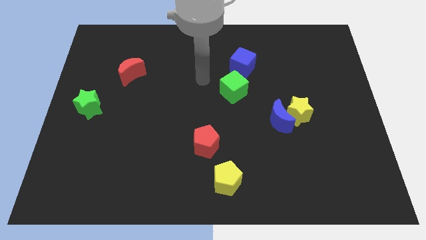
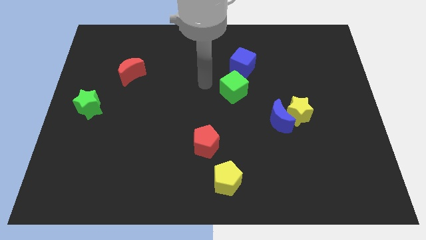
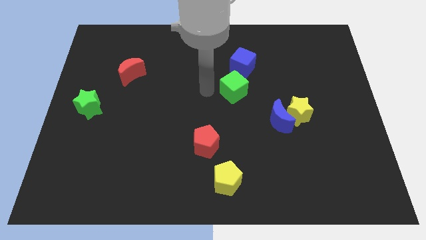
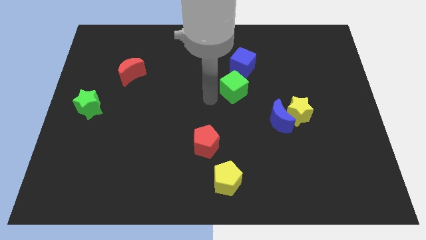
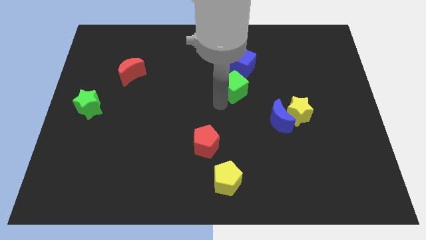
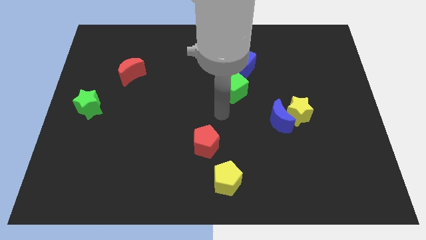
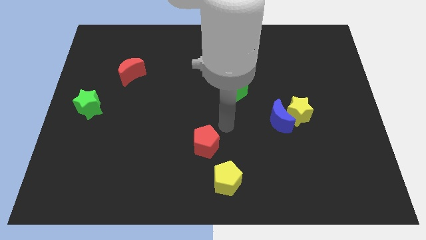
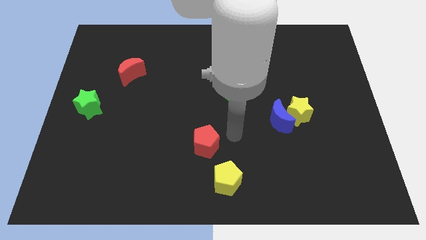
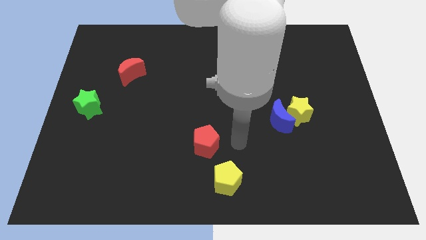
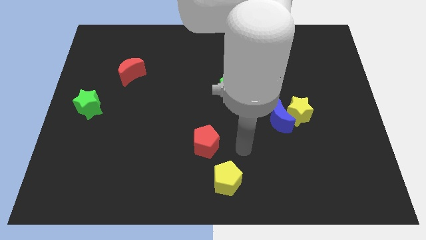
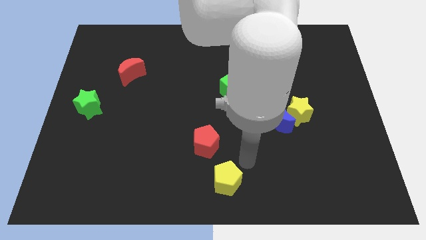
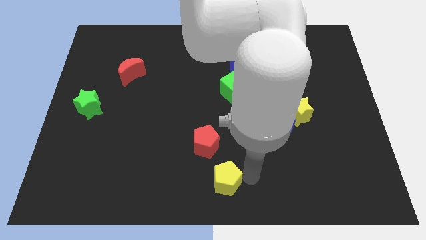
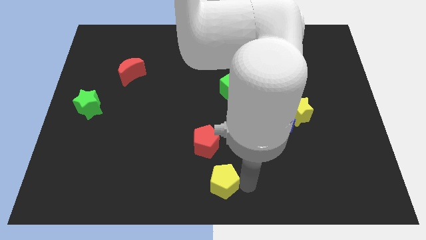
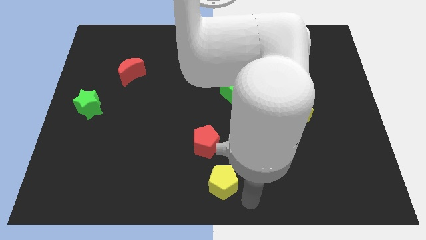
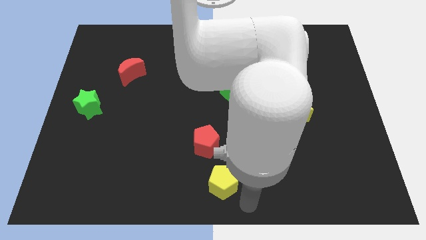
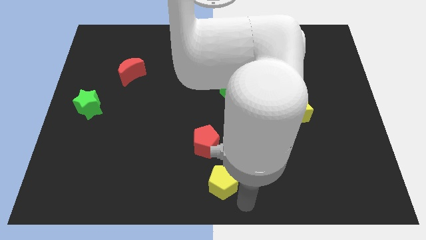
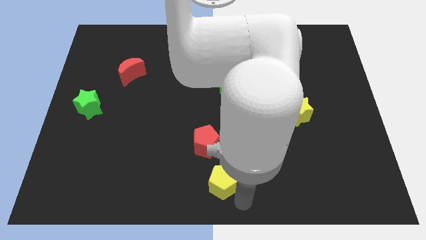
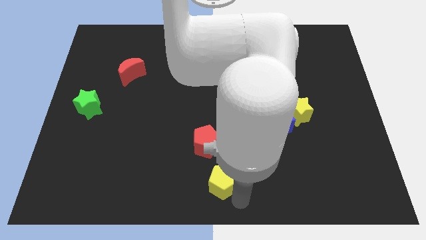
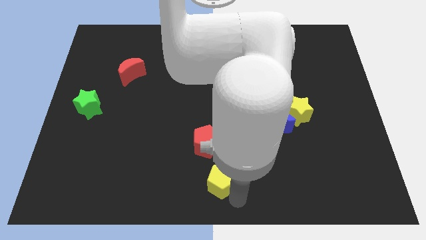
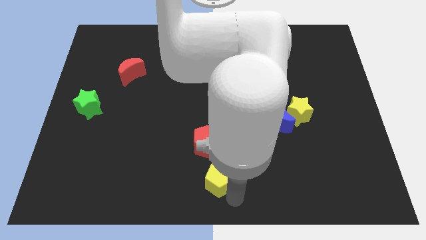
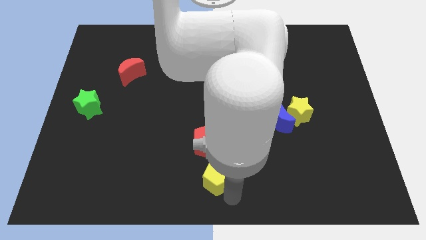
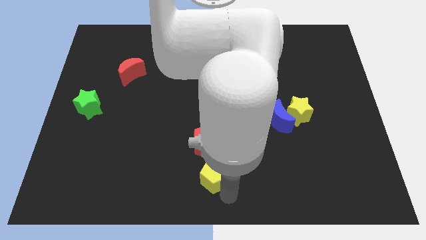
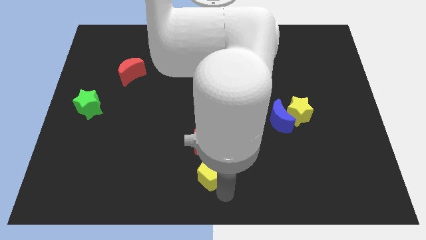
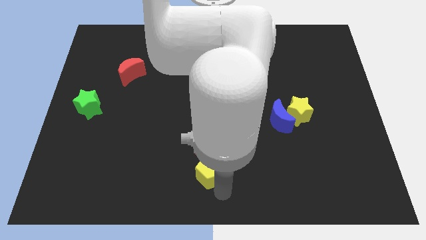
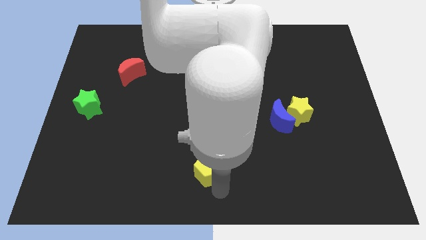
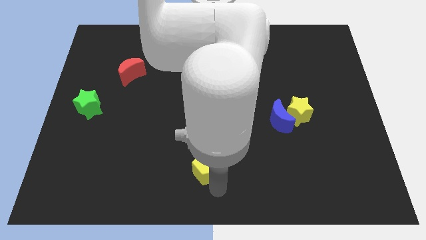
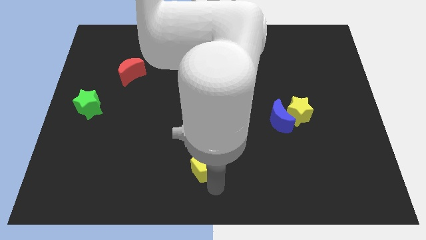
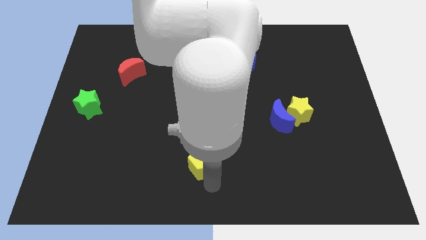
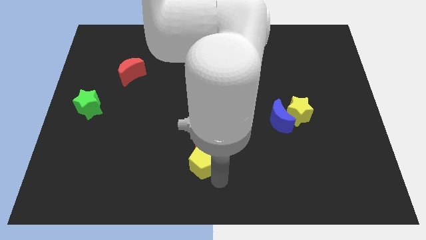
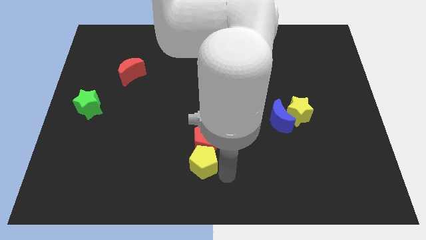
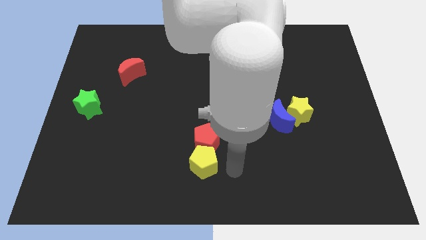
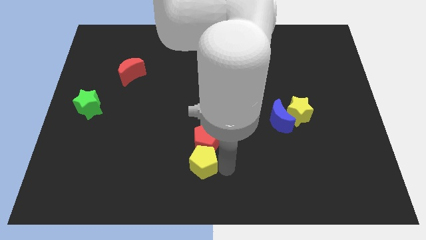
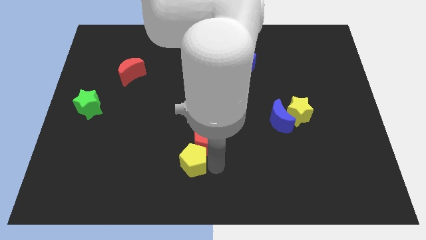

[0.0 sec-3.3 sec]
slightly push the yellow pentagon upwards and then to the left

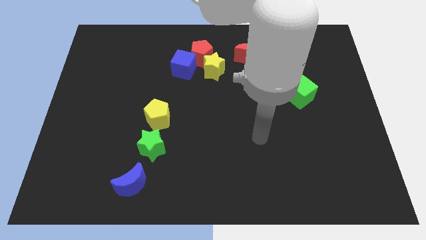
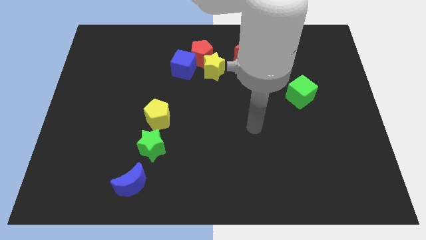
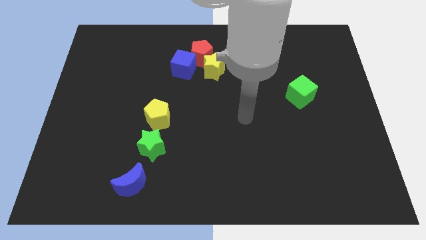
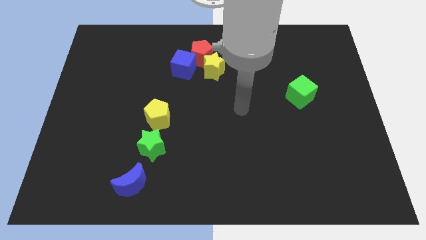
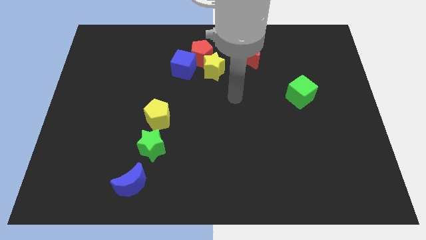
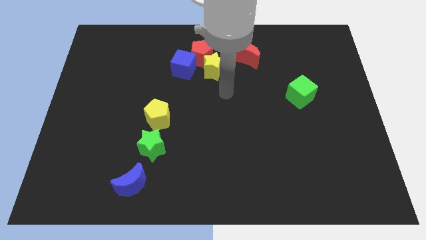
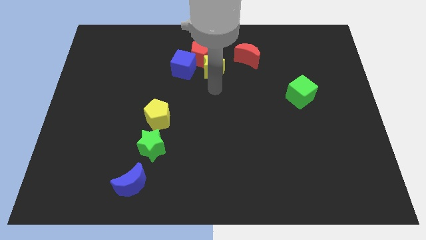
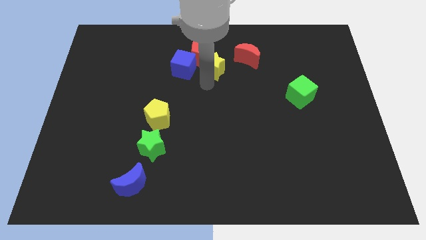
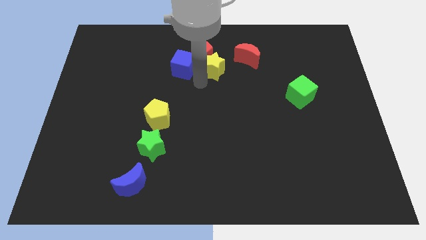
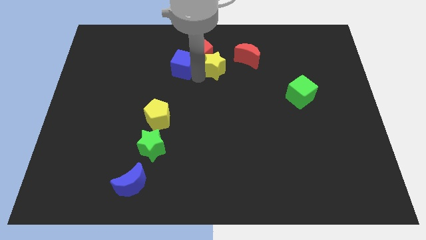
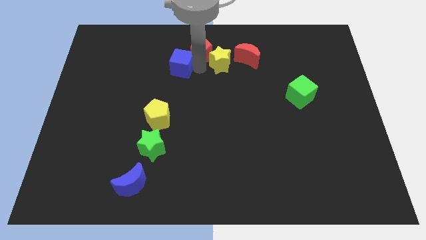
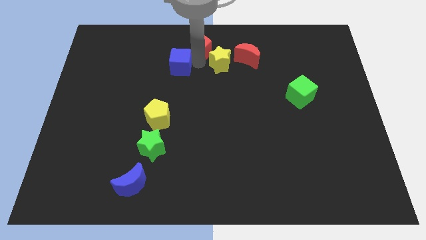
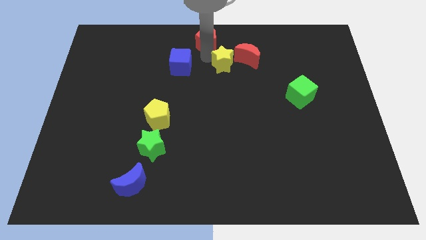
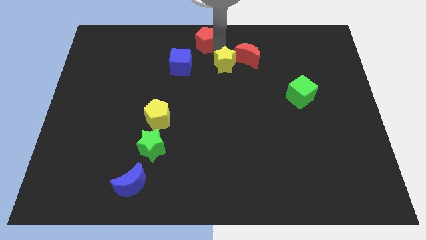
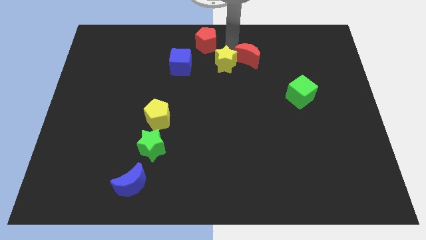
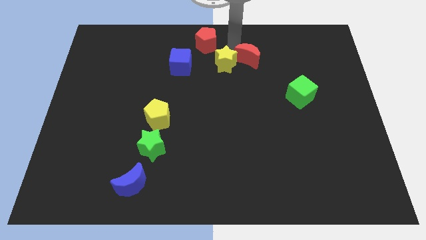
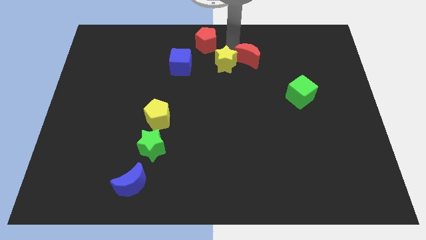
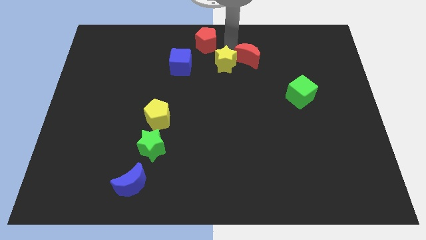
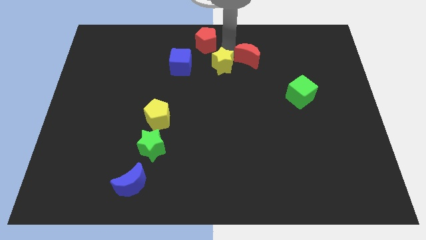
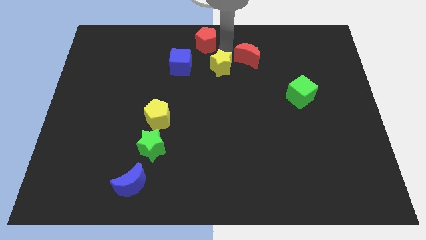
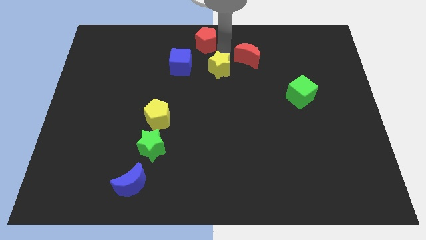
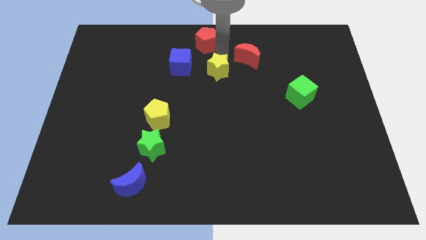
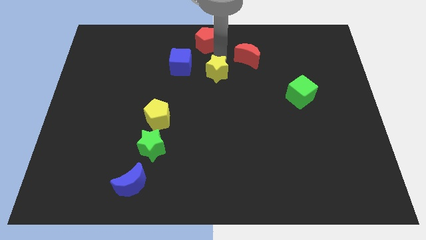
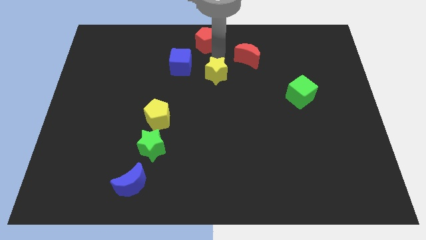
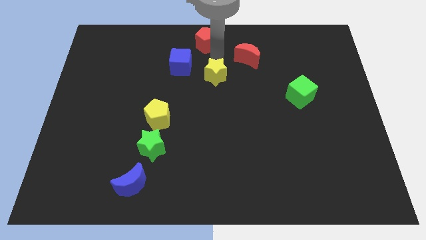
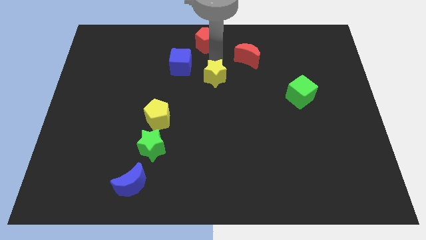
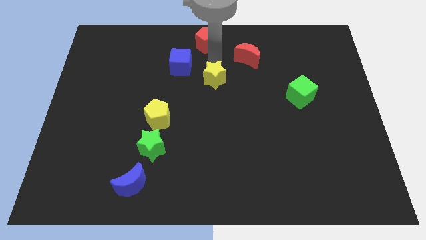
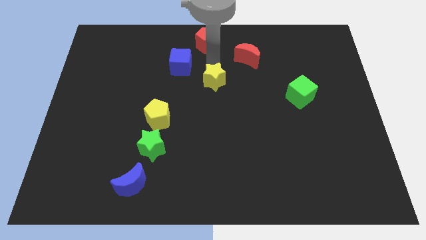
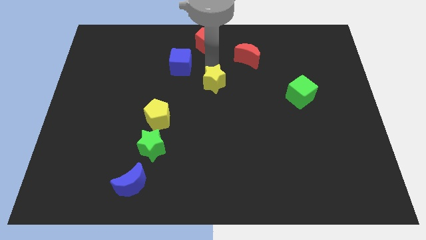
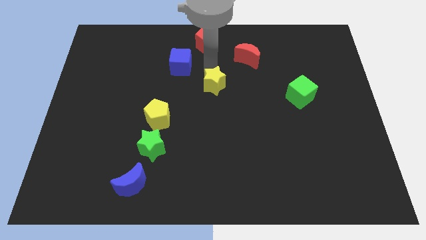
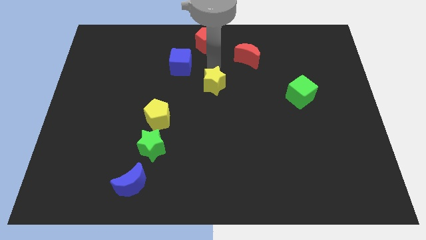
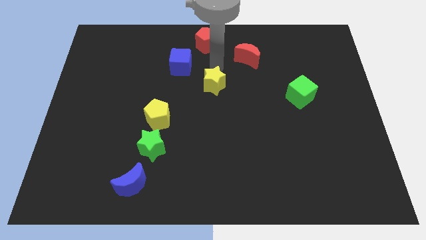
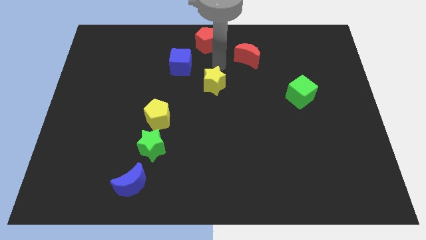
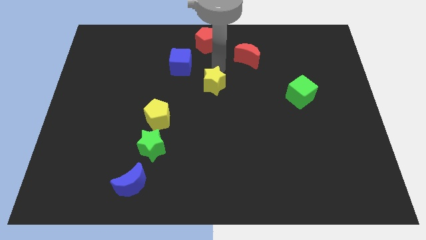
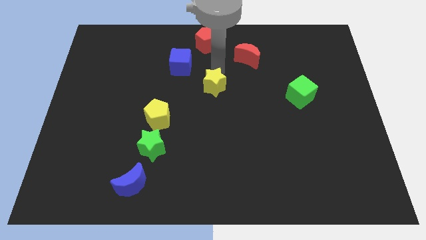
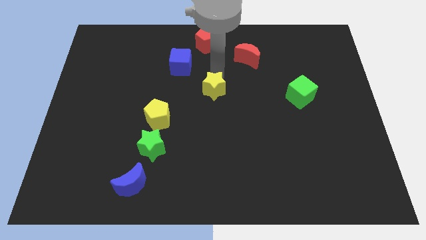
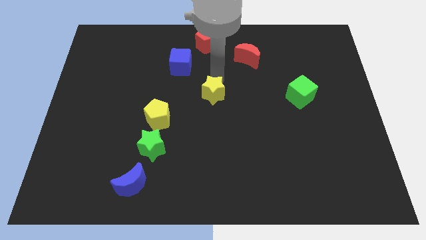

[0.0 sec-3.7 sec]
slide the yellow star down a little bit

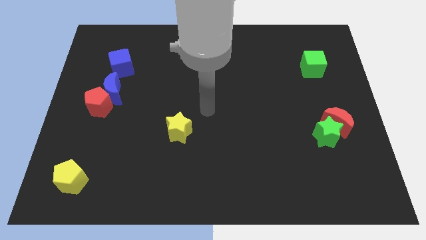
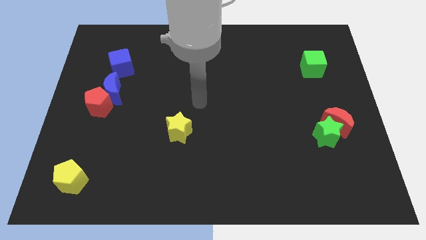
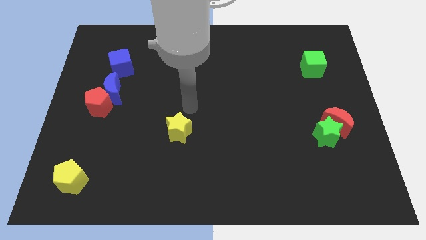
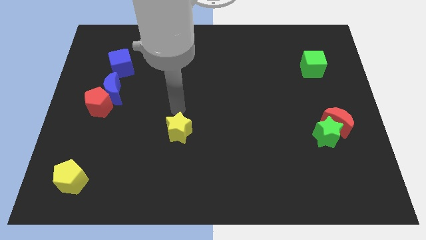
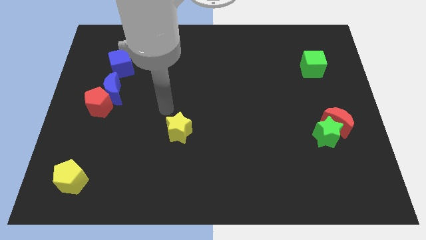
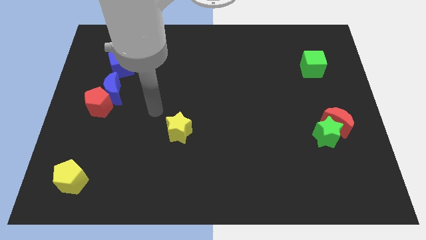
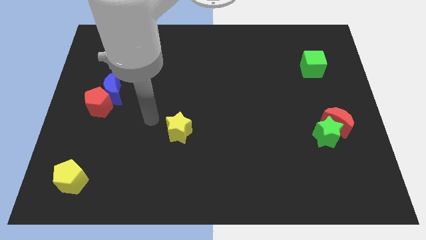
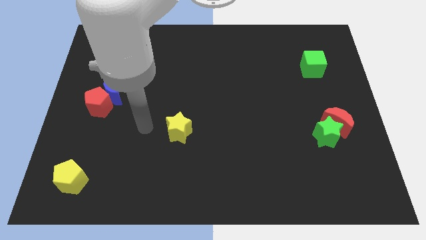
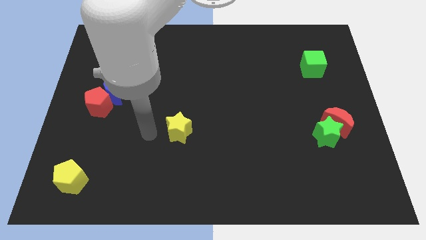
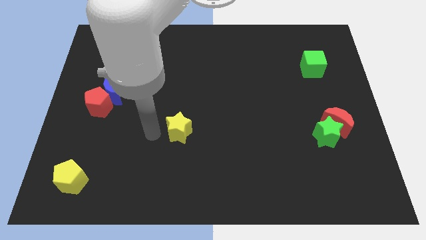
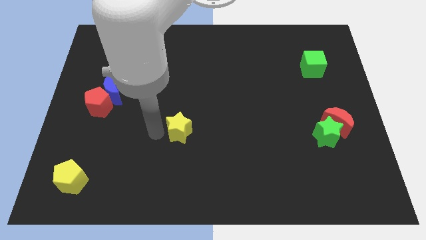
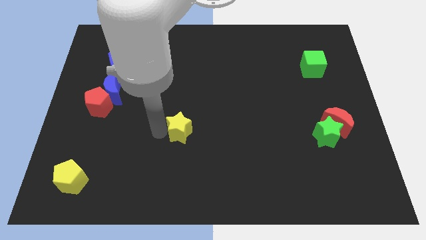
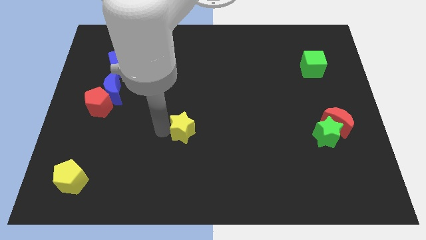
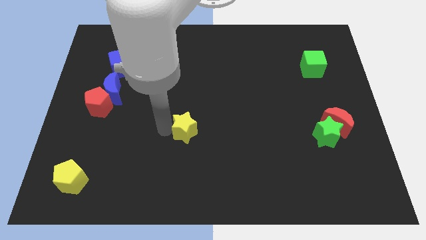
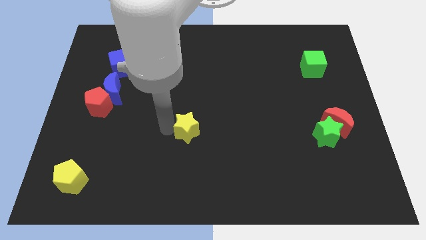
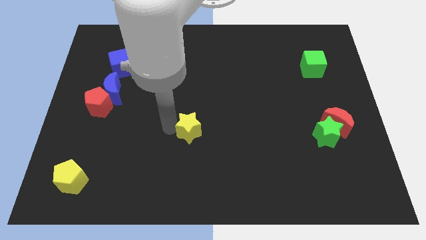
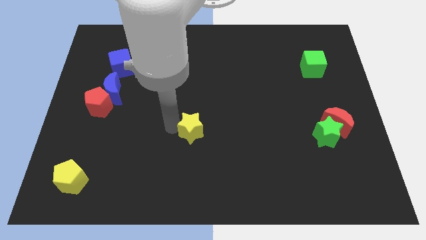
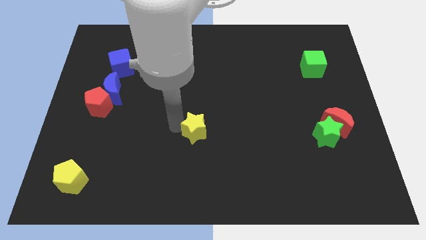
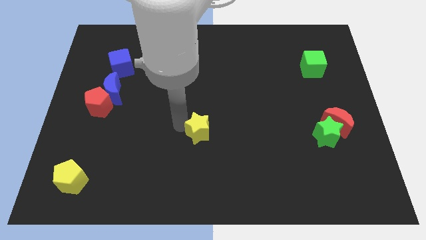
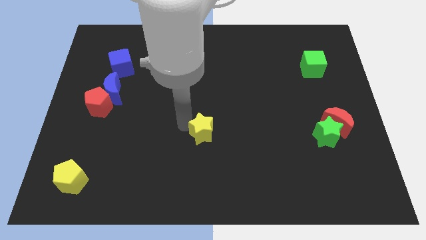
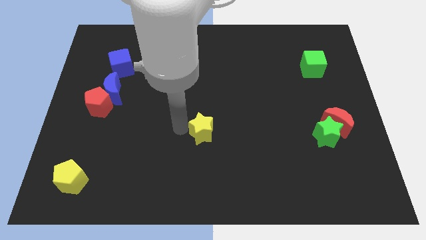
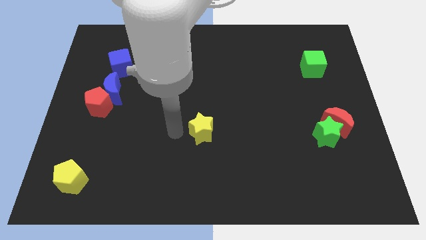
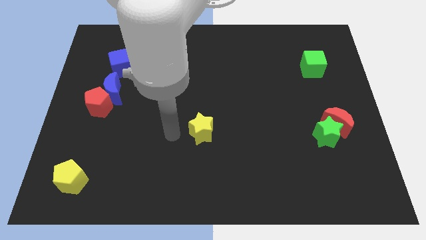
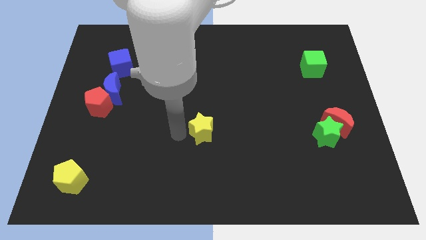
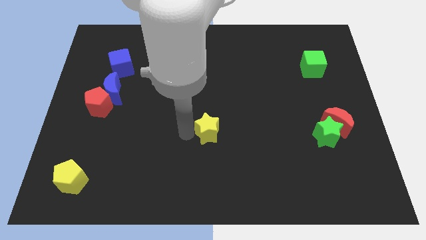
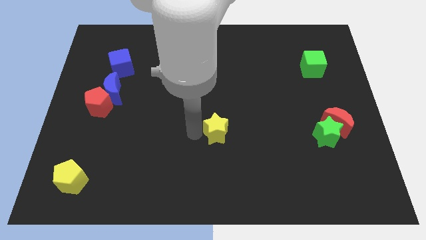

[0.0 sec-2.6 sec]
slide the yellow star somewhat right
